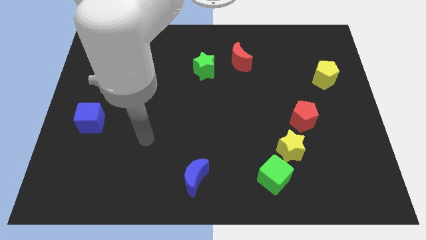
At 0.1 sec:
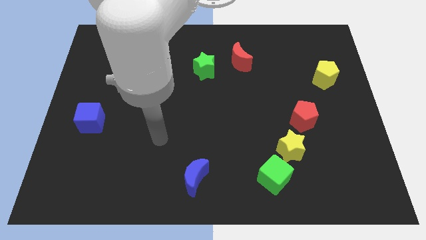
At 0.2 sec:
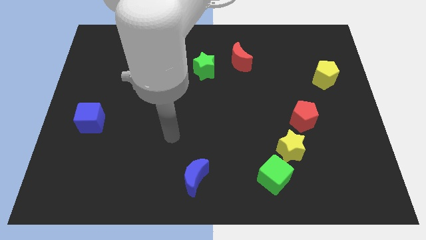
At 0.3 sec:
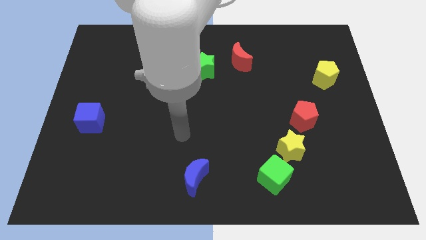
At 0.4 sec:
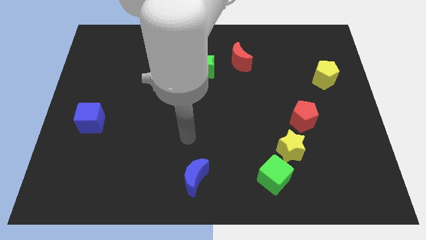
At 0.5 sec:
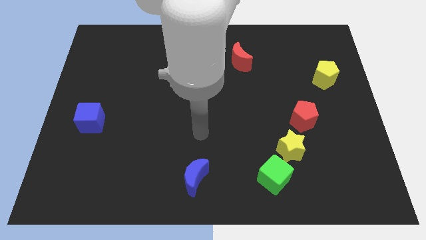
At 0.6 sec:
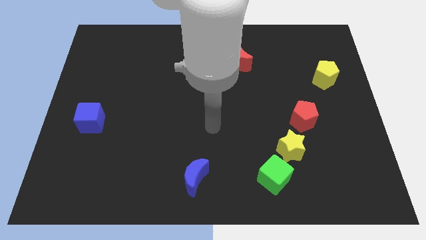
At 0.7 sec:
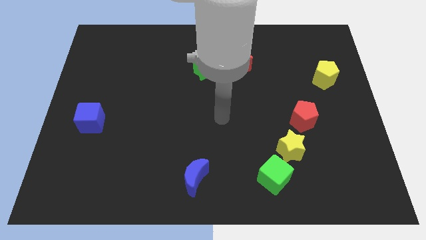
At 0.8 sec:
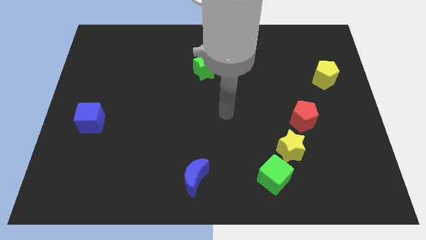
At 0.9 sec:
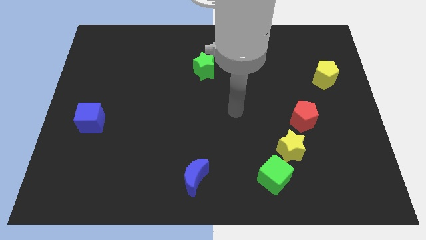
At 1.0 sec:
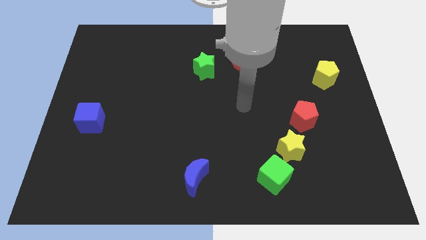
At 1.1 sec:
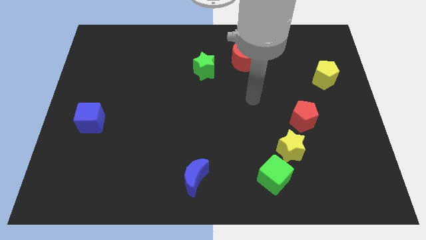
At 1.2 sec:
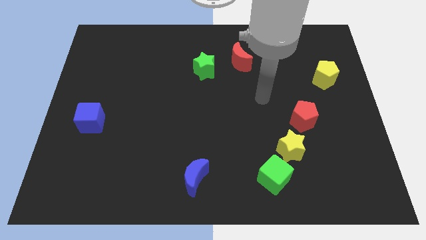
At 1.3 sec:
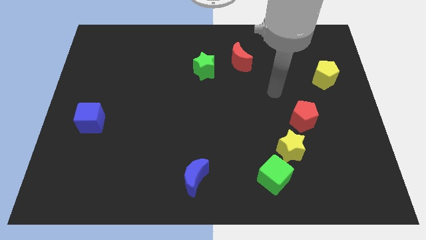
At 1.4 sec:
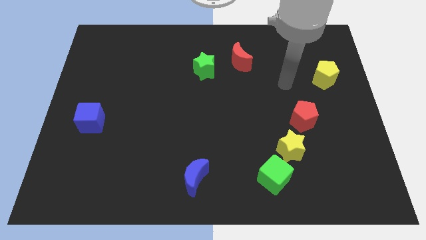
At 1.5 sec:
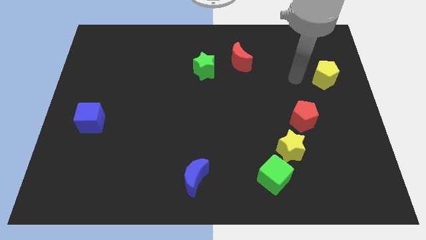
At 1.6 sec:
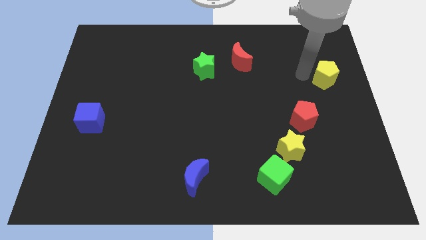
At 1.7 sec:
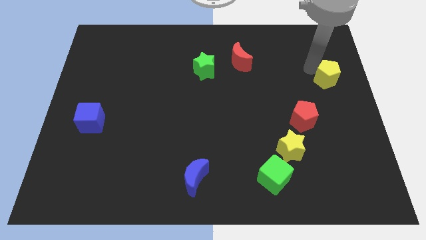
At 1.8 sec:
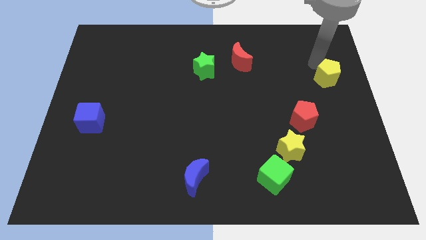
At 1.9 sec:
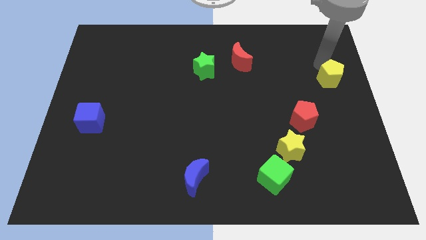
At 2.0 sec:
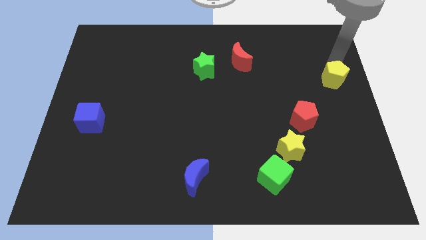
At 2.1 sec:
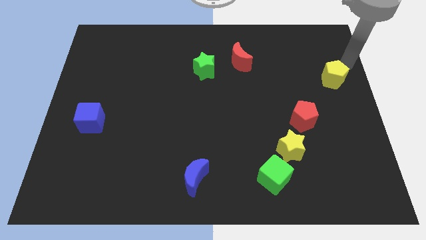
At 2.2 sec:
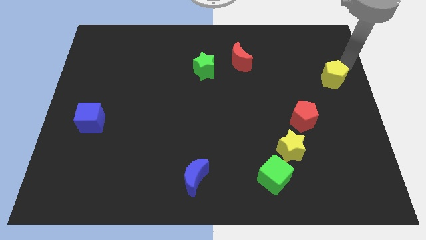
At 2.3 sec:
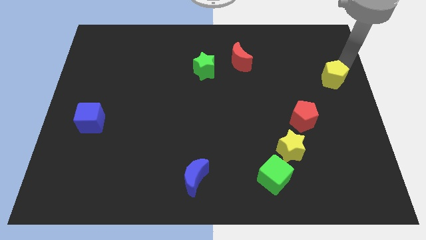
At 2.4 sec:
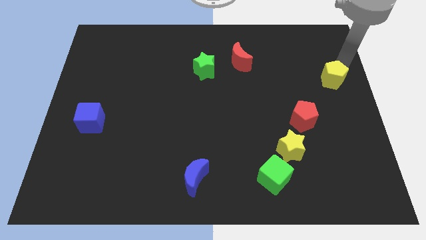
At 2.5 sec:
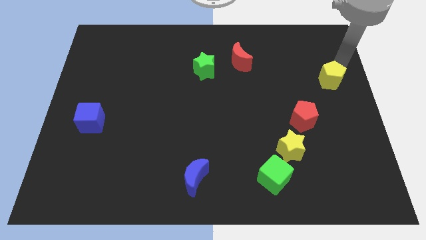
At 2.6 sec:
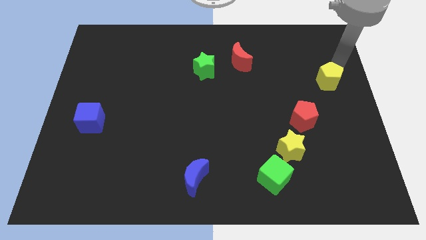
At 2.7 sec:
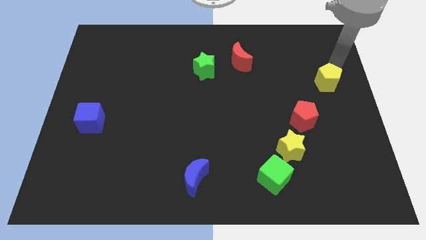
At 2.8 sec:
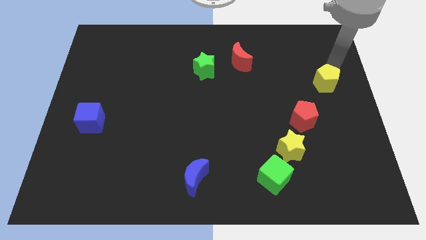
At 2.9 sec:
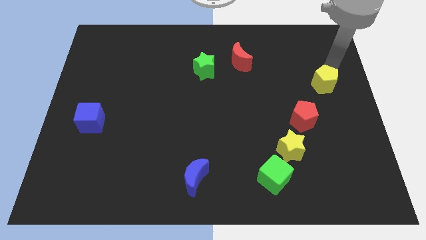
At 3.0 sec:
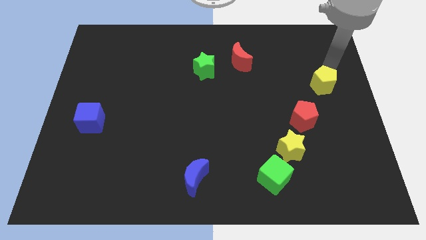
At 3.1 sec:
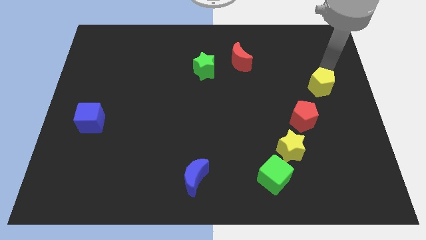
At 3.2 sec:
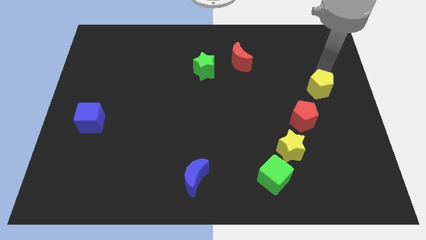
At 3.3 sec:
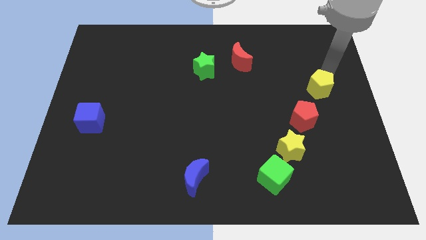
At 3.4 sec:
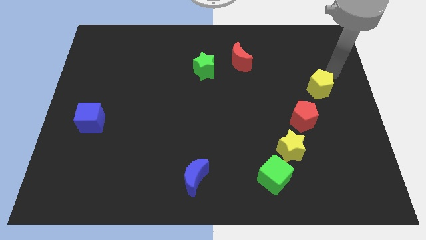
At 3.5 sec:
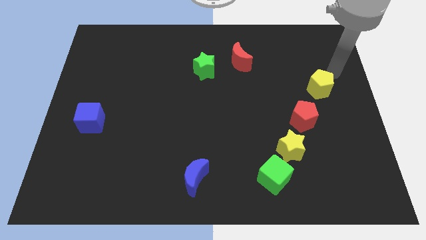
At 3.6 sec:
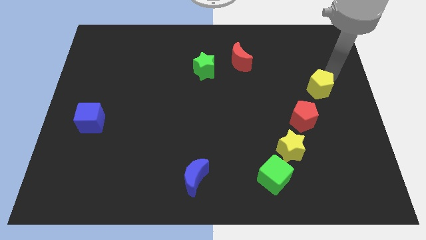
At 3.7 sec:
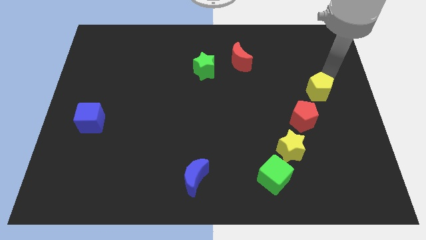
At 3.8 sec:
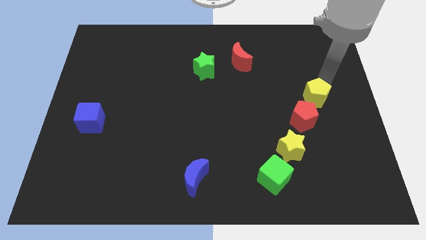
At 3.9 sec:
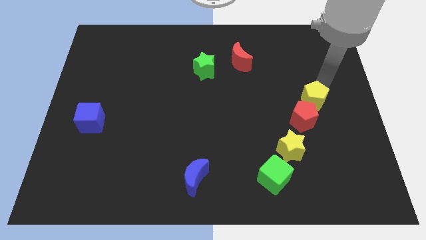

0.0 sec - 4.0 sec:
move the yellow pentagon diagonally downwards and left a little

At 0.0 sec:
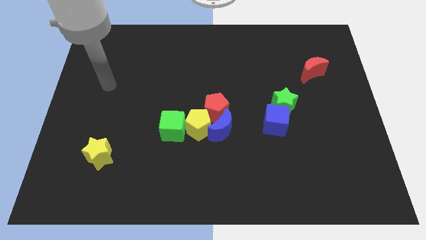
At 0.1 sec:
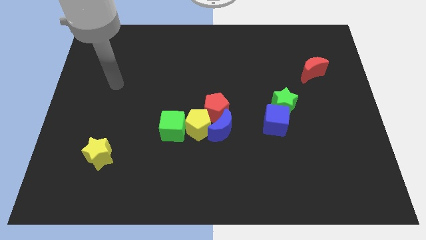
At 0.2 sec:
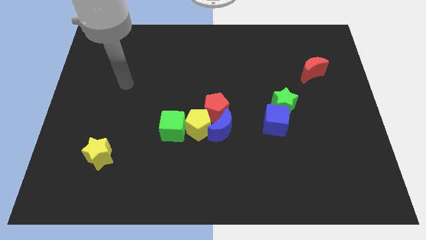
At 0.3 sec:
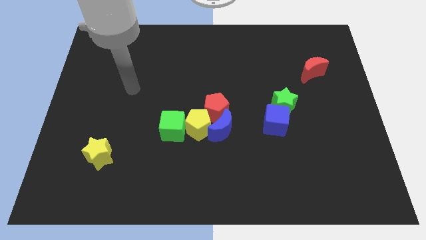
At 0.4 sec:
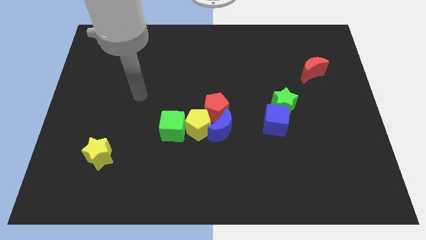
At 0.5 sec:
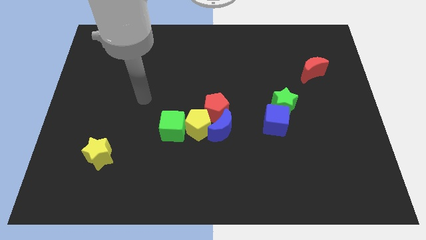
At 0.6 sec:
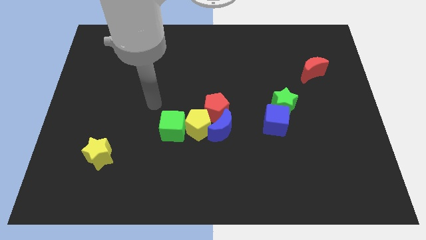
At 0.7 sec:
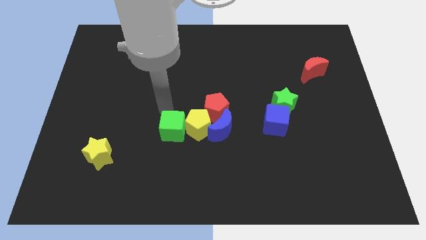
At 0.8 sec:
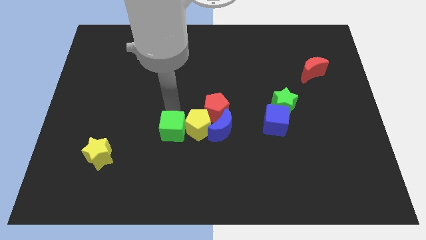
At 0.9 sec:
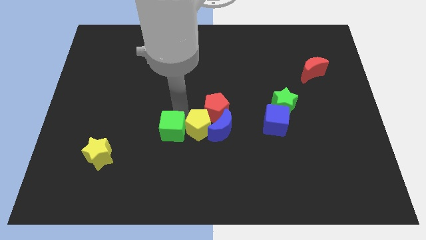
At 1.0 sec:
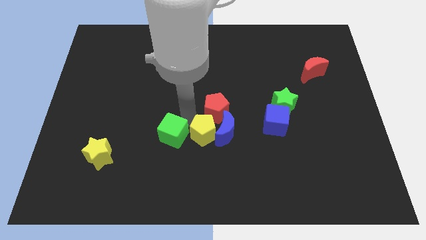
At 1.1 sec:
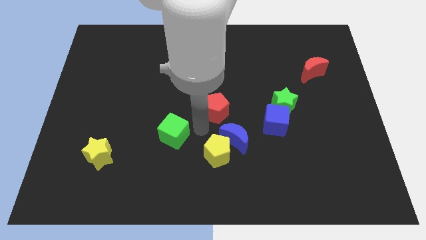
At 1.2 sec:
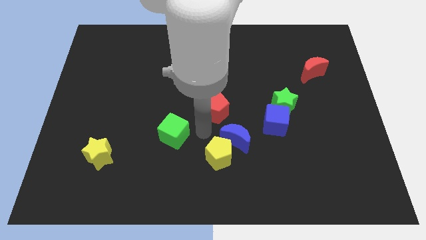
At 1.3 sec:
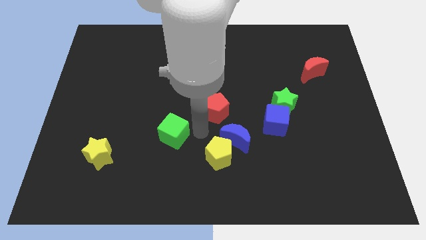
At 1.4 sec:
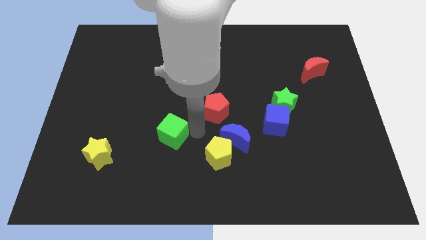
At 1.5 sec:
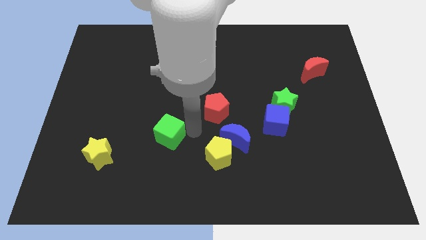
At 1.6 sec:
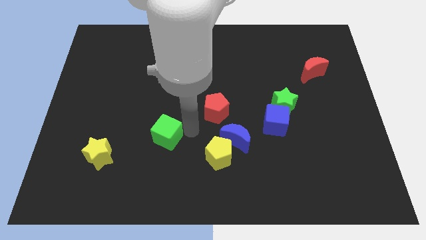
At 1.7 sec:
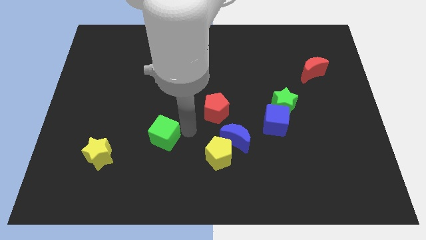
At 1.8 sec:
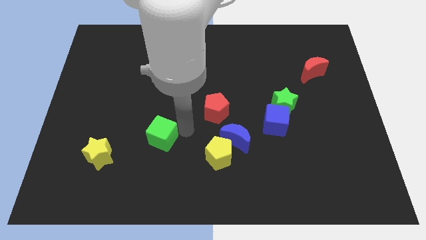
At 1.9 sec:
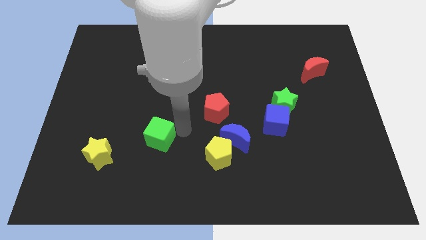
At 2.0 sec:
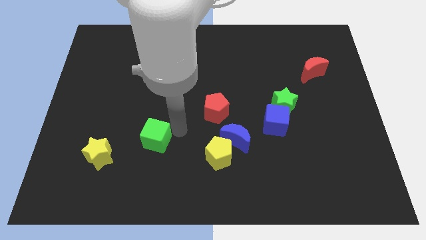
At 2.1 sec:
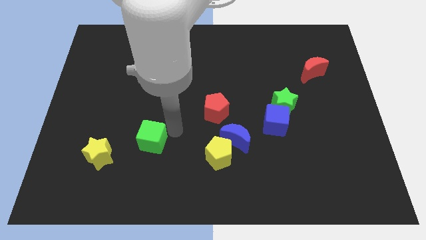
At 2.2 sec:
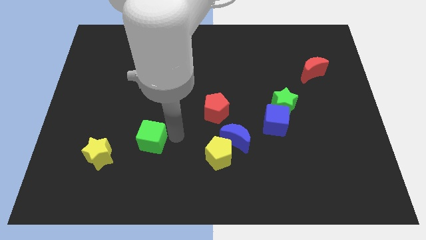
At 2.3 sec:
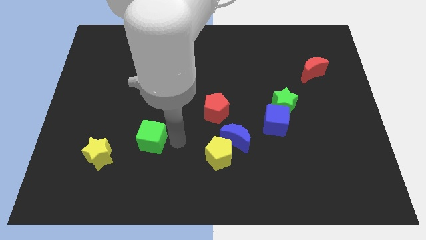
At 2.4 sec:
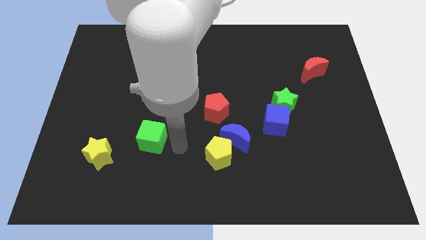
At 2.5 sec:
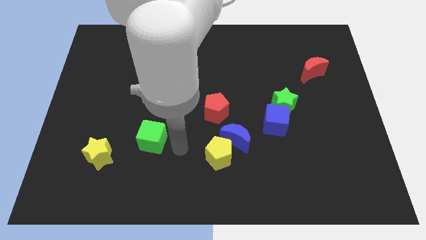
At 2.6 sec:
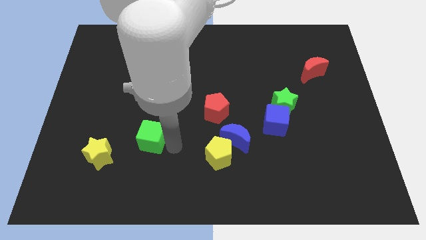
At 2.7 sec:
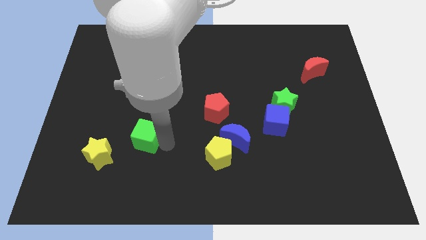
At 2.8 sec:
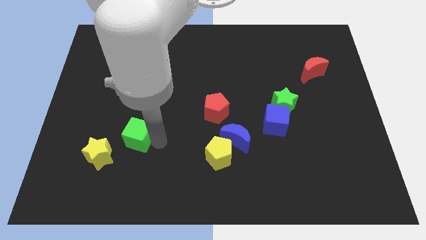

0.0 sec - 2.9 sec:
move the green cube a little to the left

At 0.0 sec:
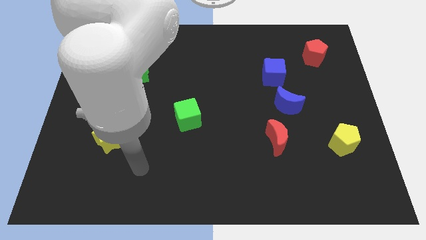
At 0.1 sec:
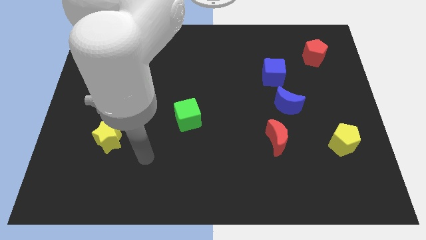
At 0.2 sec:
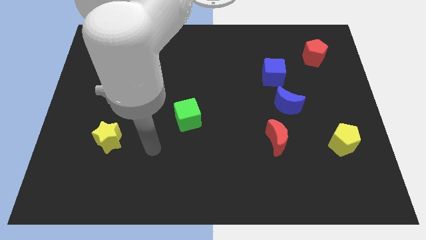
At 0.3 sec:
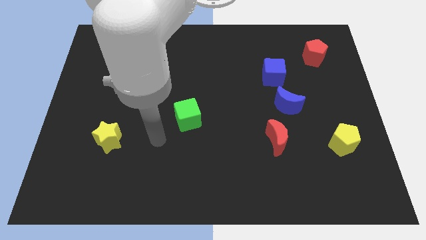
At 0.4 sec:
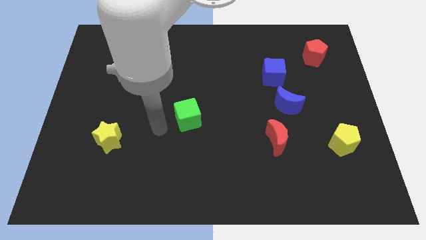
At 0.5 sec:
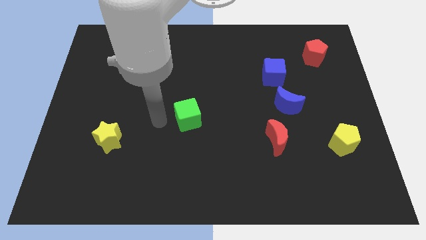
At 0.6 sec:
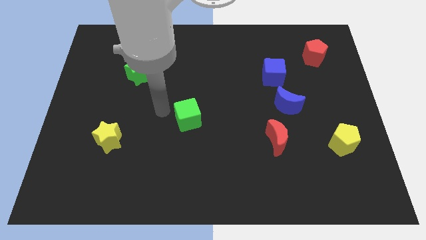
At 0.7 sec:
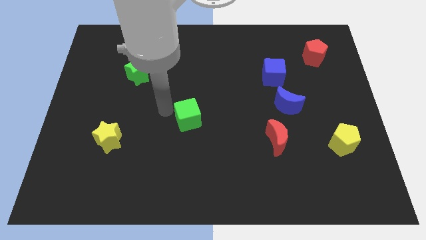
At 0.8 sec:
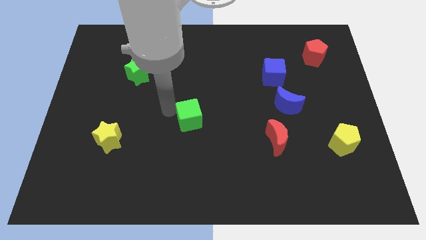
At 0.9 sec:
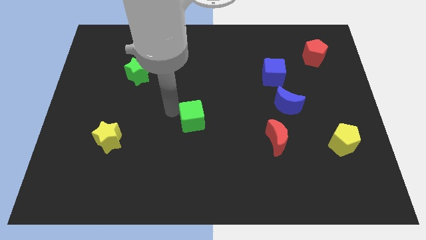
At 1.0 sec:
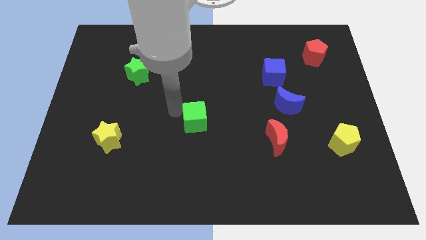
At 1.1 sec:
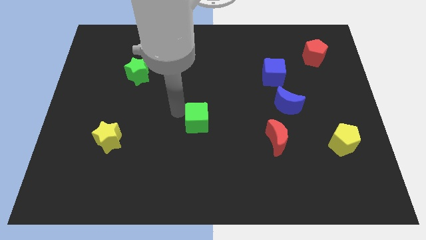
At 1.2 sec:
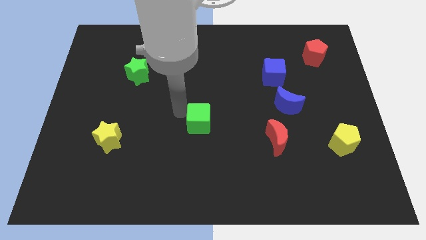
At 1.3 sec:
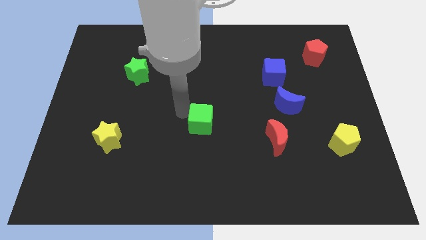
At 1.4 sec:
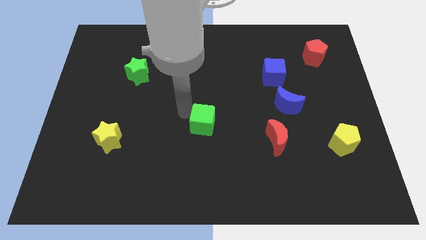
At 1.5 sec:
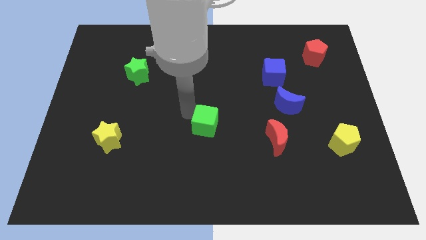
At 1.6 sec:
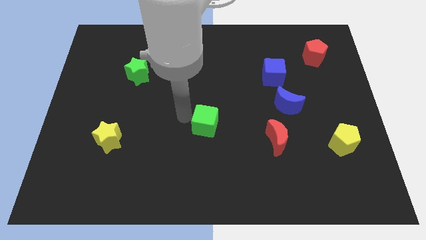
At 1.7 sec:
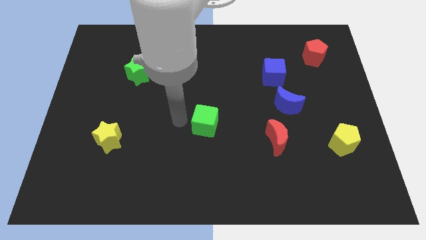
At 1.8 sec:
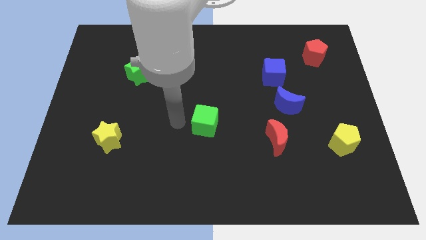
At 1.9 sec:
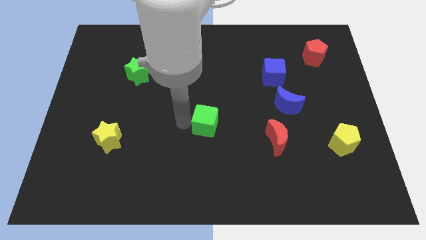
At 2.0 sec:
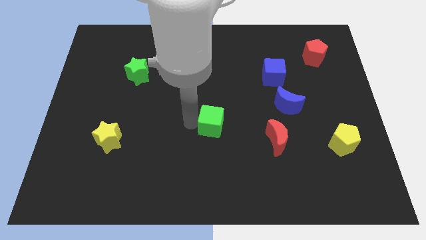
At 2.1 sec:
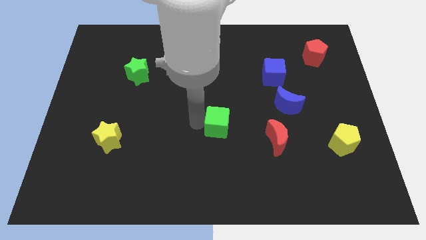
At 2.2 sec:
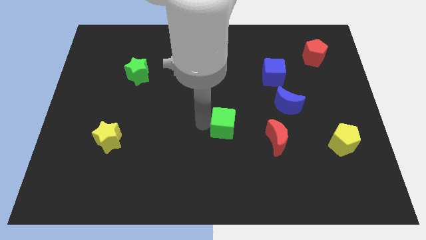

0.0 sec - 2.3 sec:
move the green cube a little bit right
